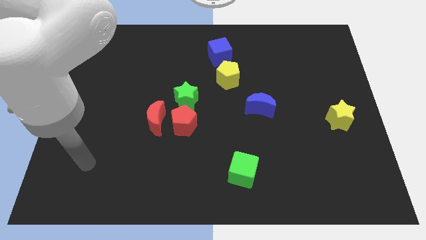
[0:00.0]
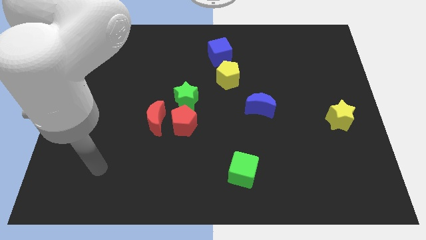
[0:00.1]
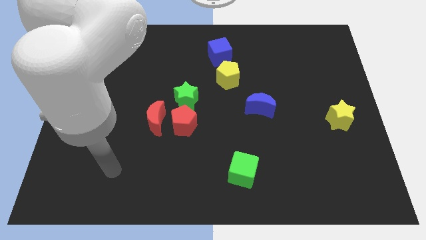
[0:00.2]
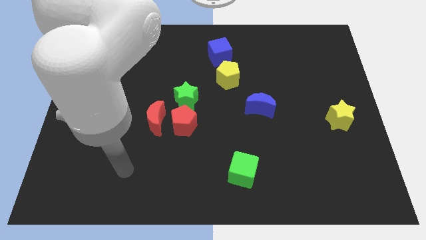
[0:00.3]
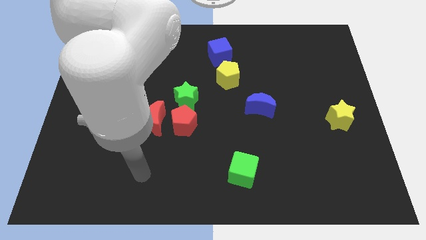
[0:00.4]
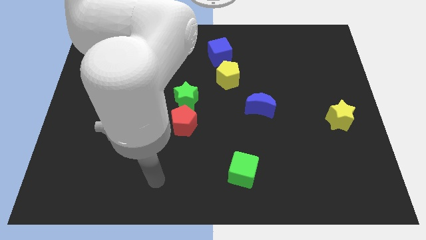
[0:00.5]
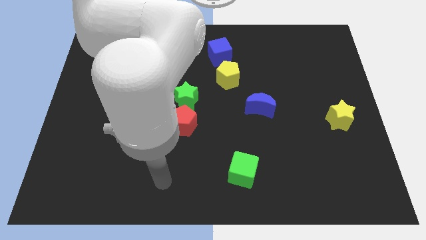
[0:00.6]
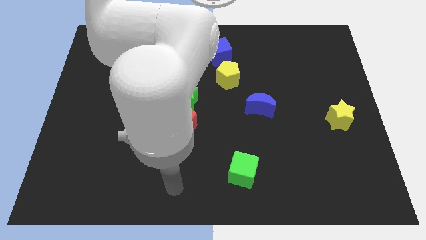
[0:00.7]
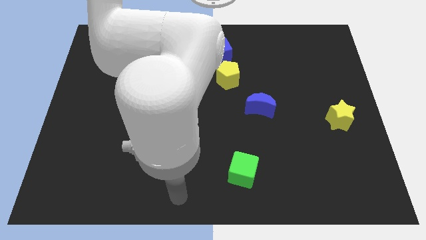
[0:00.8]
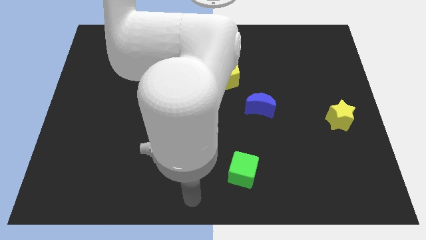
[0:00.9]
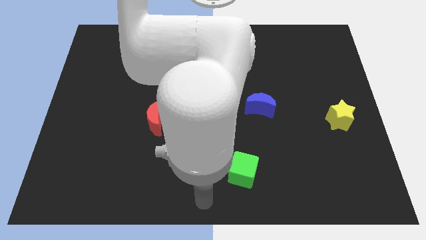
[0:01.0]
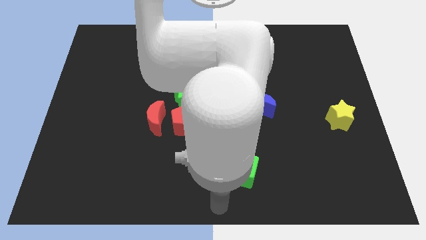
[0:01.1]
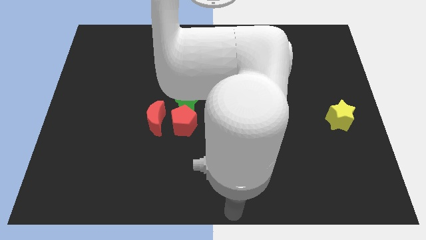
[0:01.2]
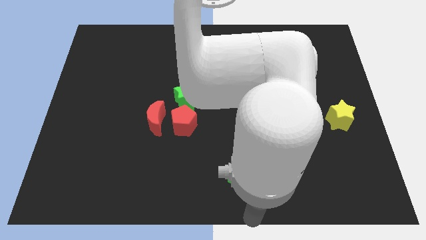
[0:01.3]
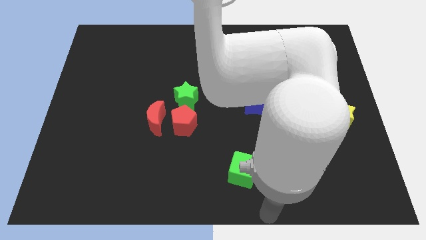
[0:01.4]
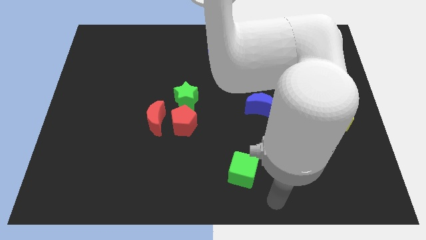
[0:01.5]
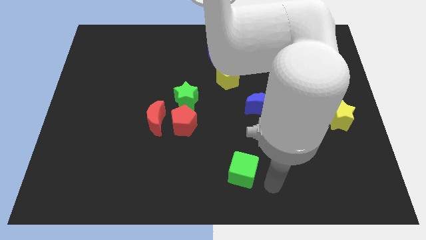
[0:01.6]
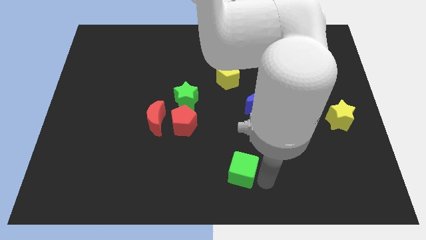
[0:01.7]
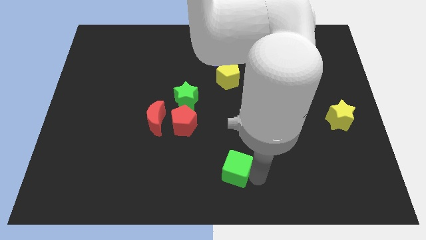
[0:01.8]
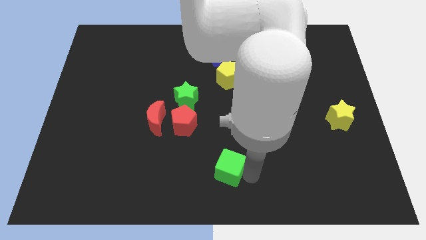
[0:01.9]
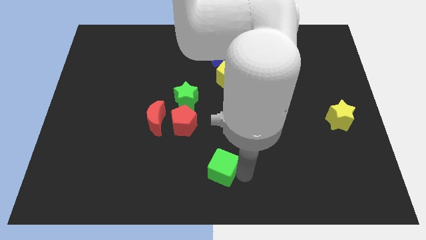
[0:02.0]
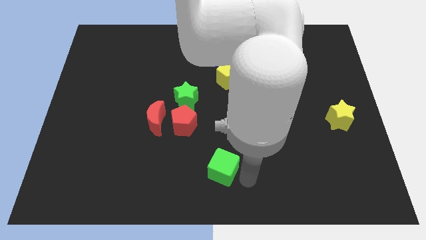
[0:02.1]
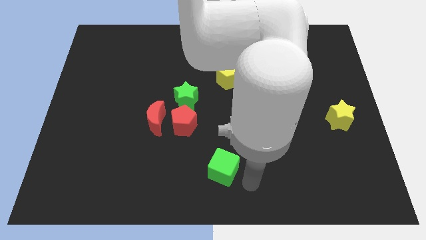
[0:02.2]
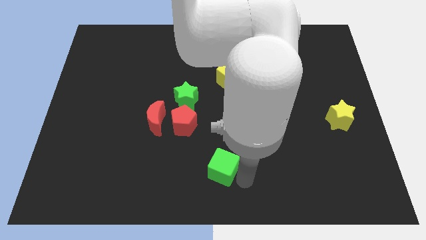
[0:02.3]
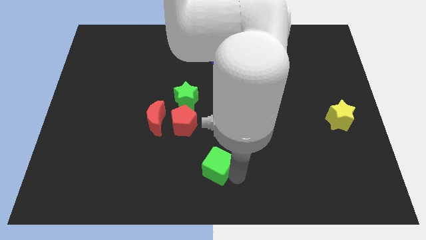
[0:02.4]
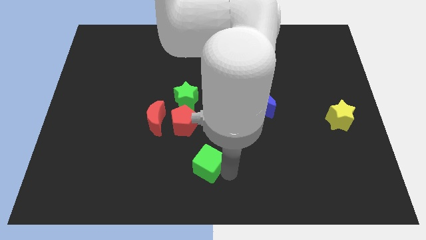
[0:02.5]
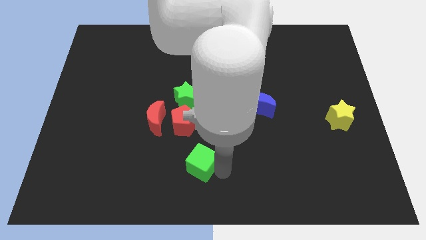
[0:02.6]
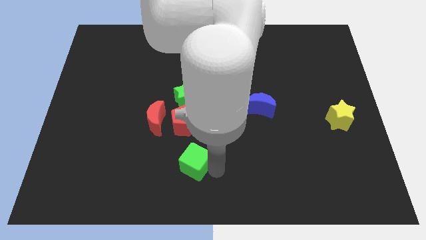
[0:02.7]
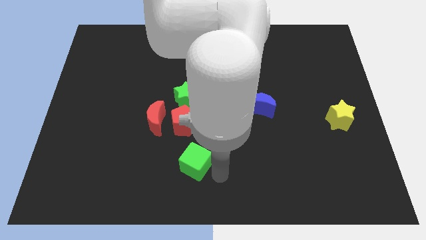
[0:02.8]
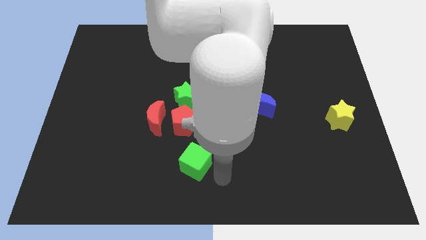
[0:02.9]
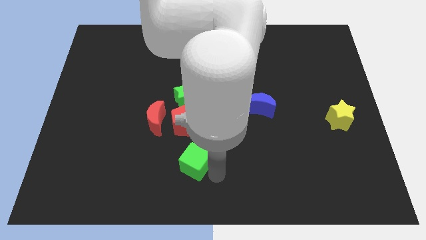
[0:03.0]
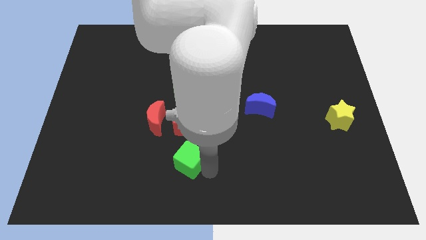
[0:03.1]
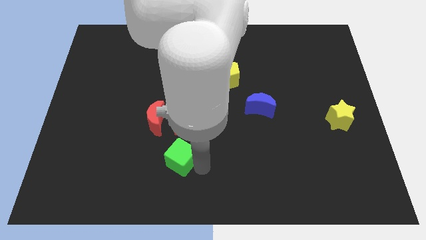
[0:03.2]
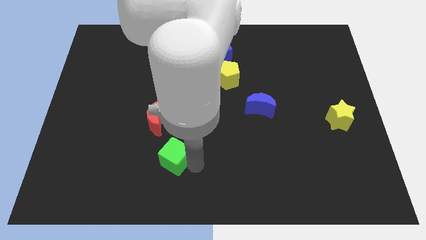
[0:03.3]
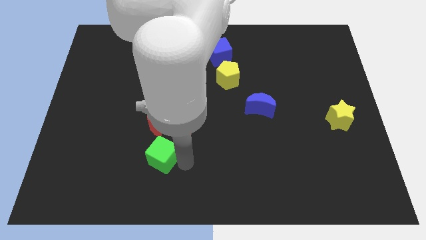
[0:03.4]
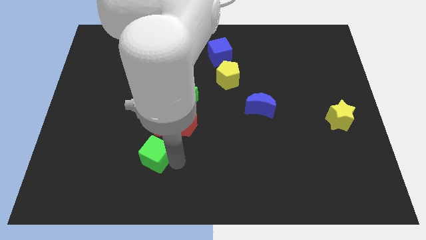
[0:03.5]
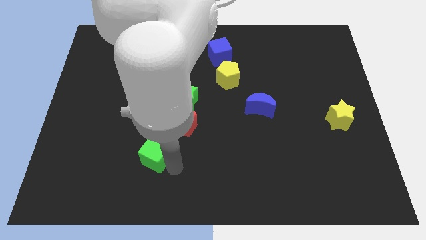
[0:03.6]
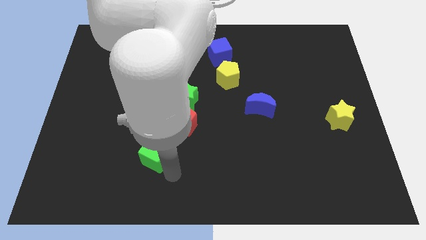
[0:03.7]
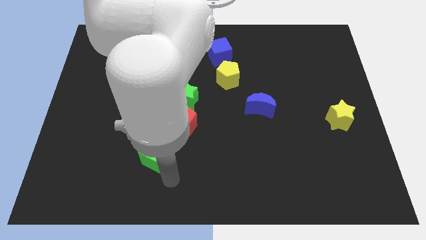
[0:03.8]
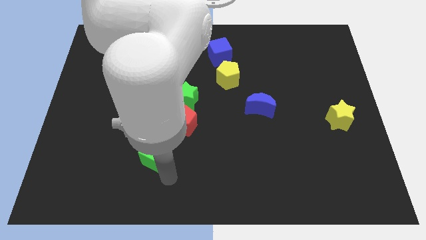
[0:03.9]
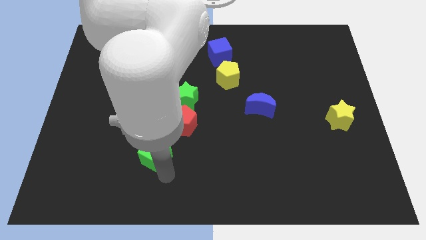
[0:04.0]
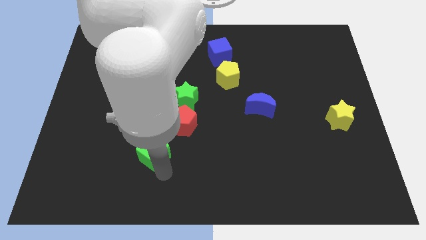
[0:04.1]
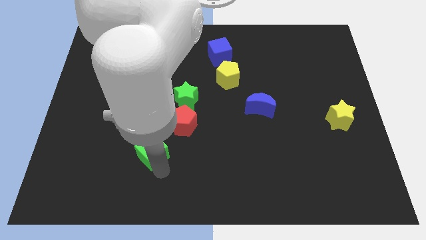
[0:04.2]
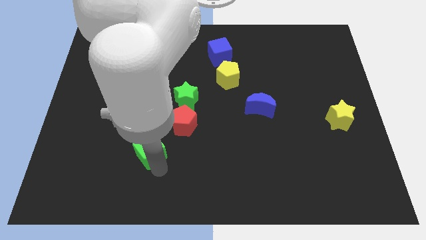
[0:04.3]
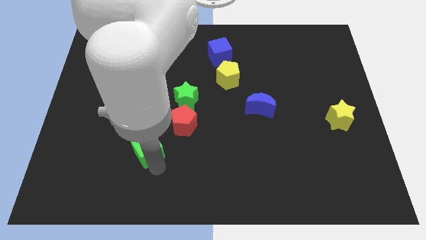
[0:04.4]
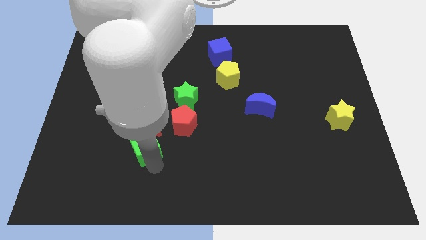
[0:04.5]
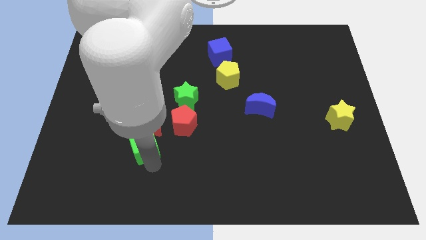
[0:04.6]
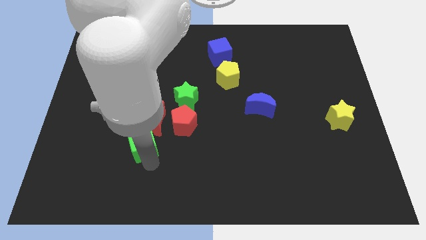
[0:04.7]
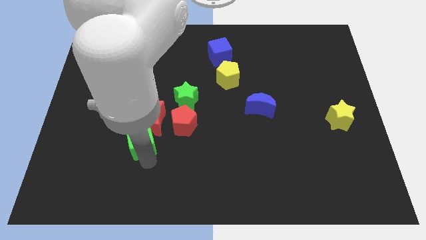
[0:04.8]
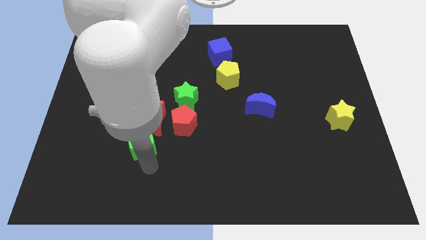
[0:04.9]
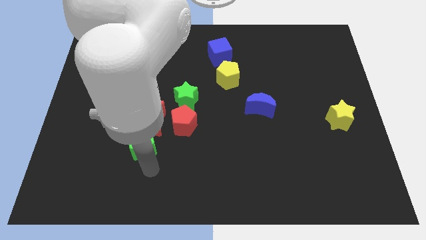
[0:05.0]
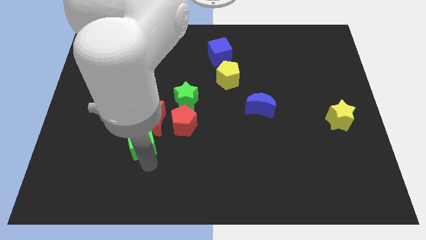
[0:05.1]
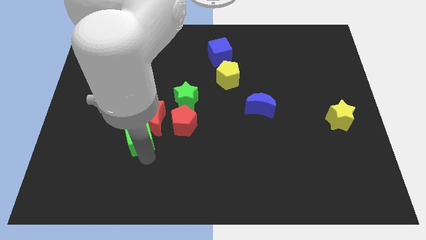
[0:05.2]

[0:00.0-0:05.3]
slide the green cube to the left of the red pentagon

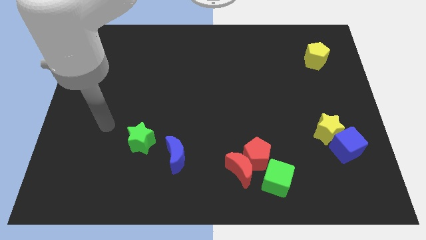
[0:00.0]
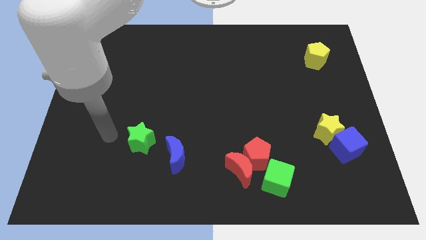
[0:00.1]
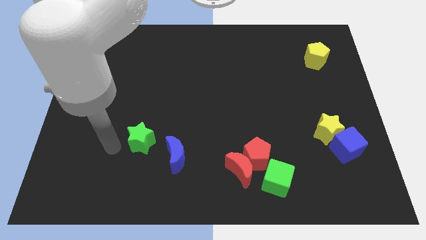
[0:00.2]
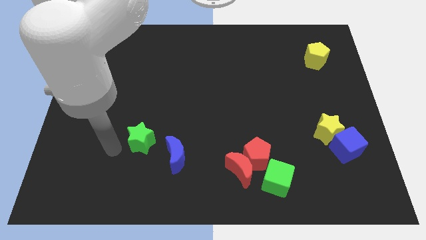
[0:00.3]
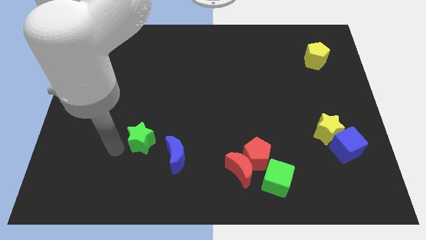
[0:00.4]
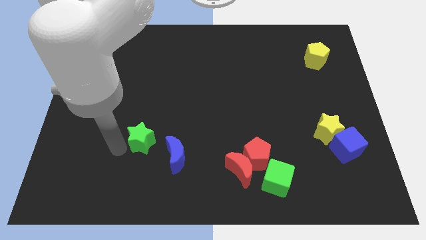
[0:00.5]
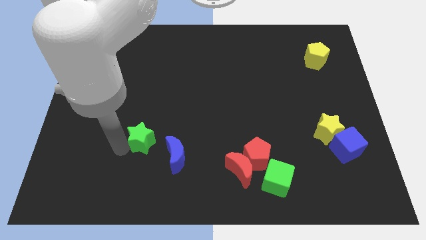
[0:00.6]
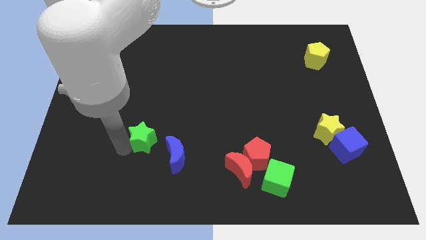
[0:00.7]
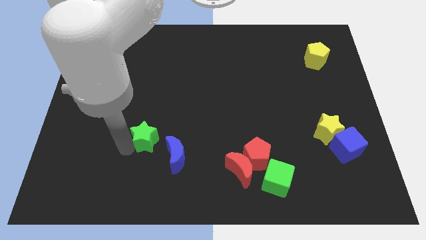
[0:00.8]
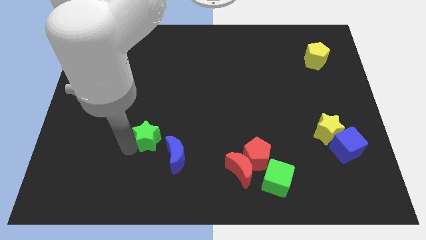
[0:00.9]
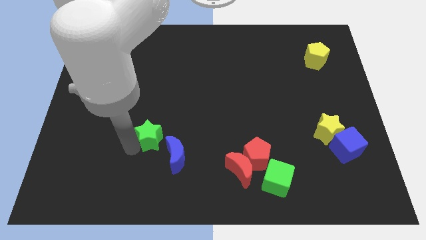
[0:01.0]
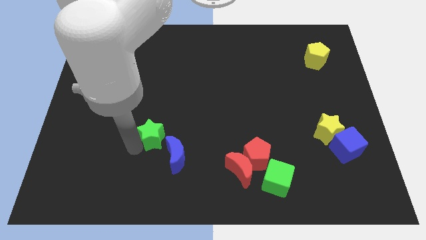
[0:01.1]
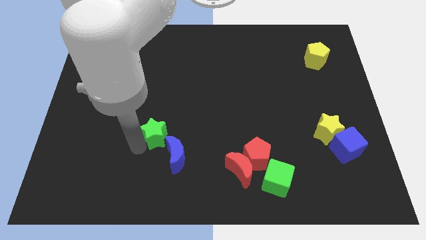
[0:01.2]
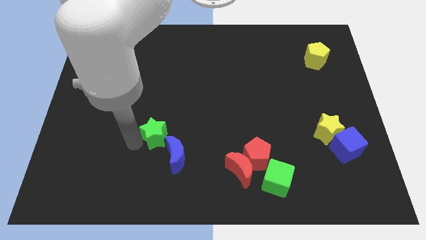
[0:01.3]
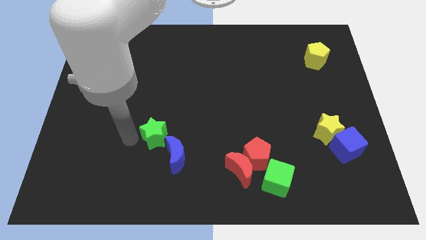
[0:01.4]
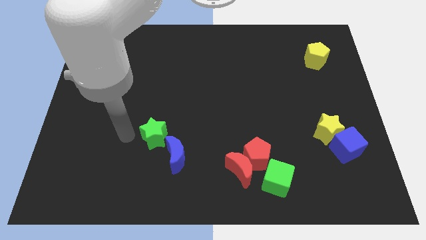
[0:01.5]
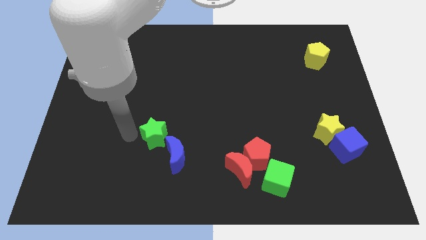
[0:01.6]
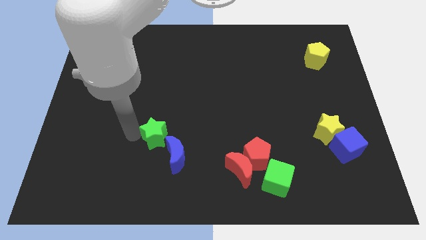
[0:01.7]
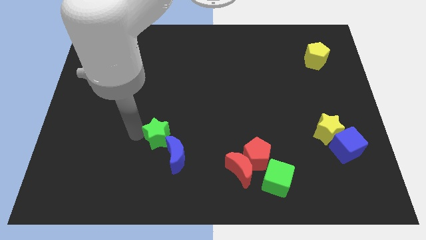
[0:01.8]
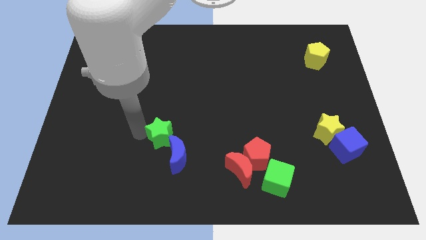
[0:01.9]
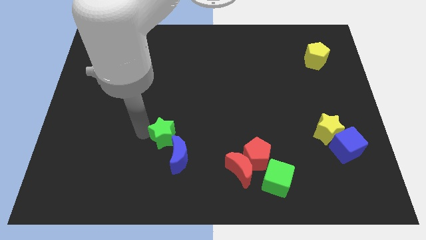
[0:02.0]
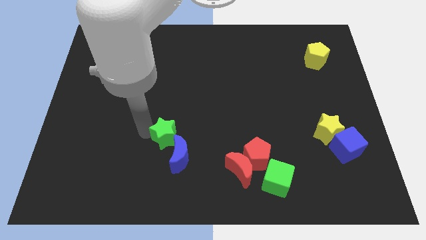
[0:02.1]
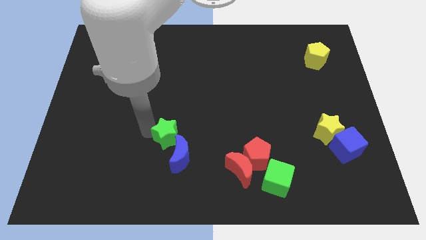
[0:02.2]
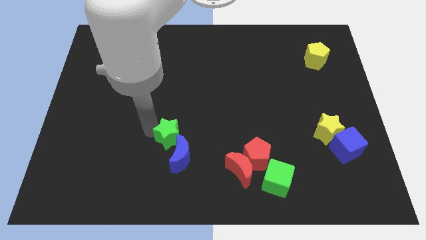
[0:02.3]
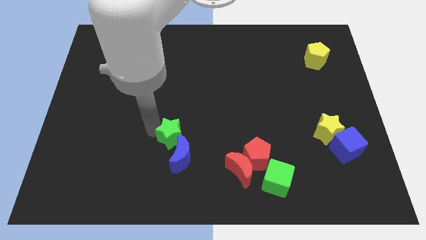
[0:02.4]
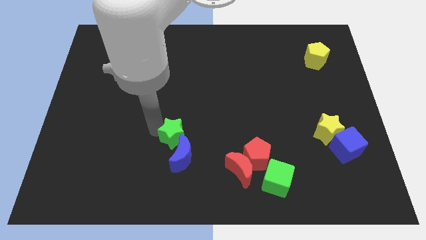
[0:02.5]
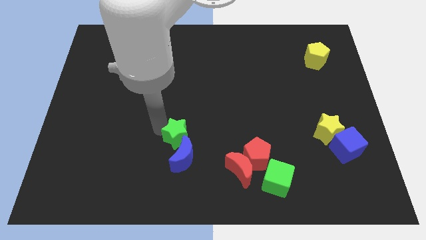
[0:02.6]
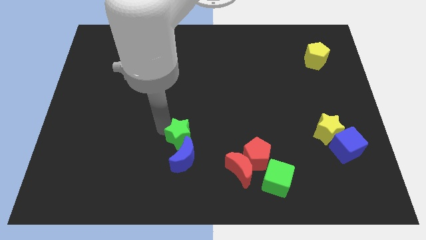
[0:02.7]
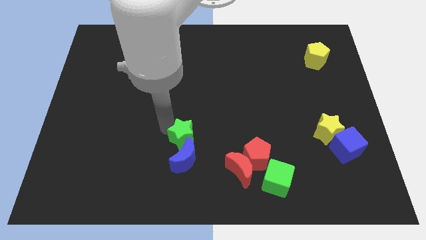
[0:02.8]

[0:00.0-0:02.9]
push the green star diagonally up and to the right of the blue moon
